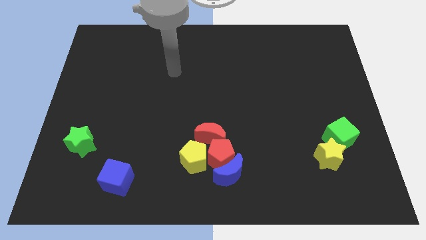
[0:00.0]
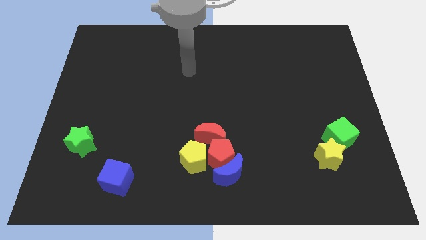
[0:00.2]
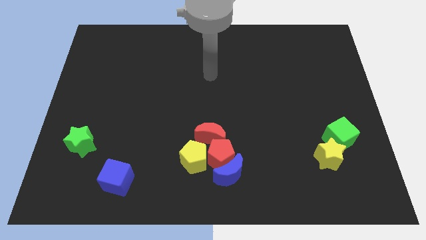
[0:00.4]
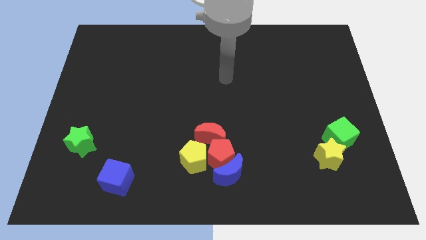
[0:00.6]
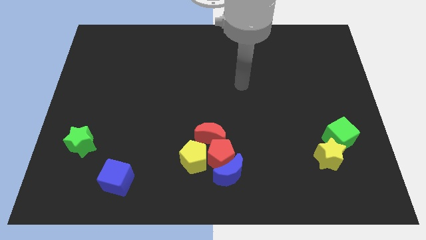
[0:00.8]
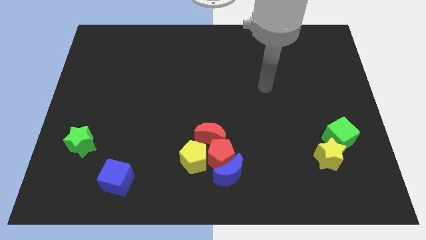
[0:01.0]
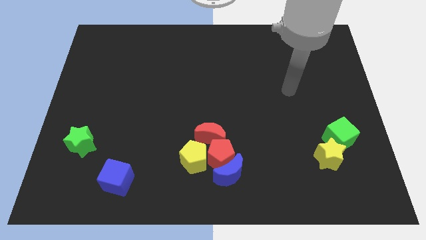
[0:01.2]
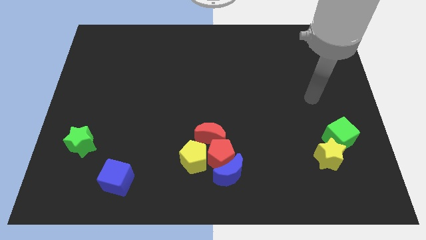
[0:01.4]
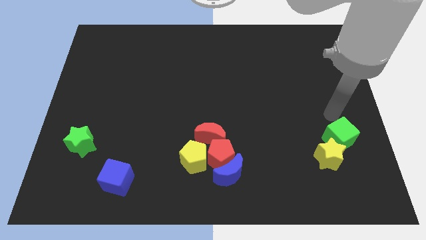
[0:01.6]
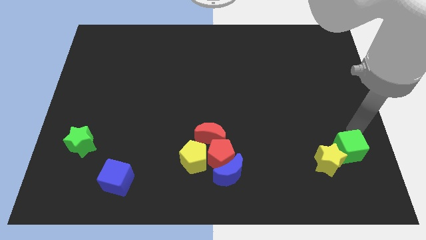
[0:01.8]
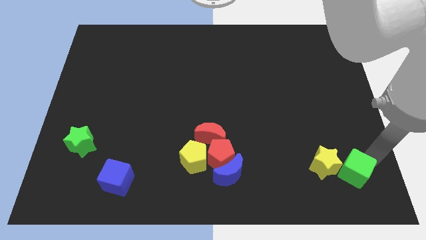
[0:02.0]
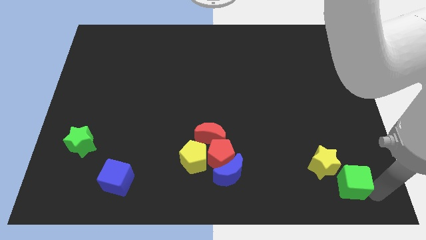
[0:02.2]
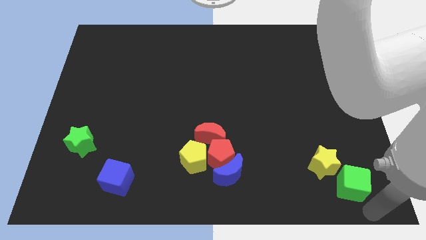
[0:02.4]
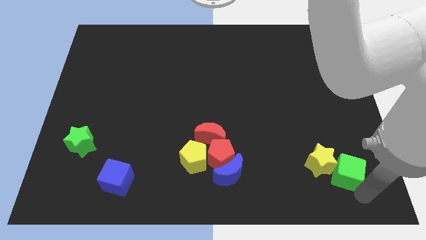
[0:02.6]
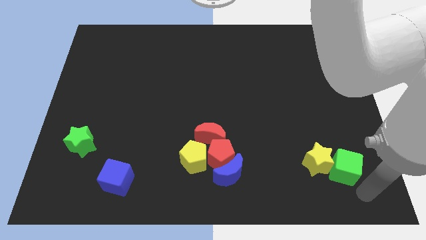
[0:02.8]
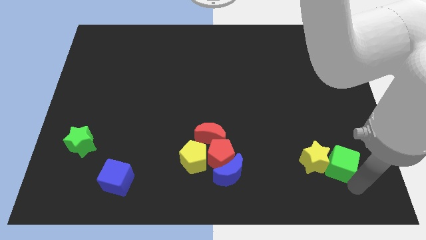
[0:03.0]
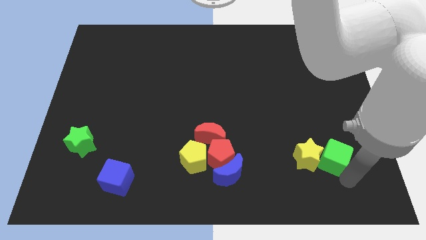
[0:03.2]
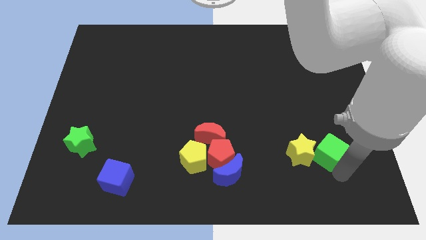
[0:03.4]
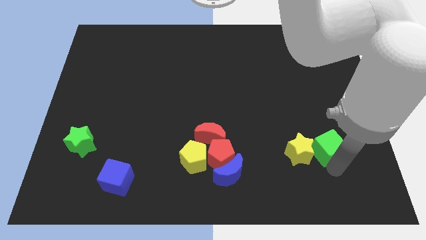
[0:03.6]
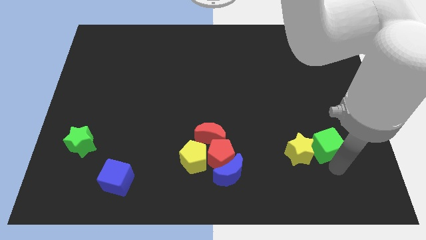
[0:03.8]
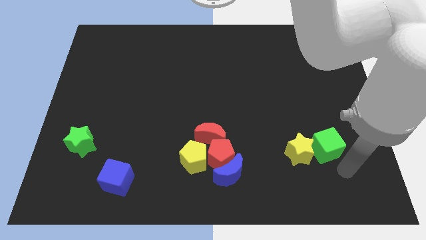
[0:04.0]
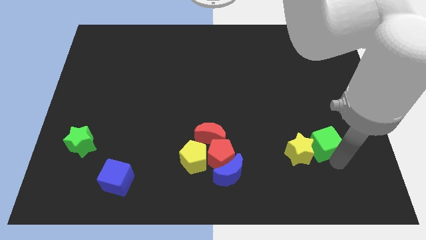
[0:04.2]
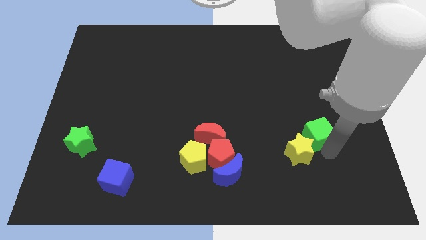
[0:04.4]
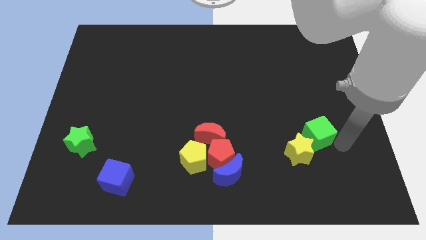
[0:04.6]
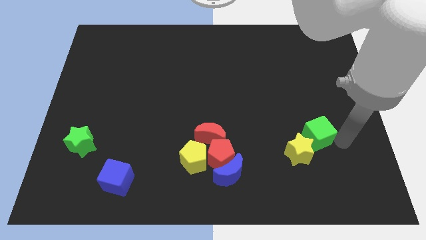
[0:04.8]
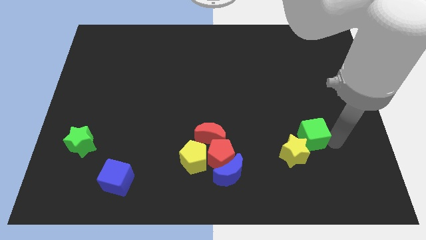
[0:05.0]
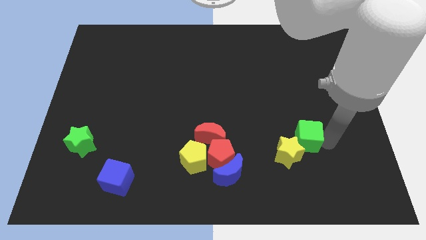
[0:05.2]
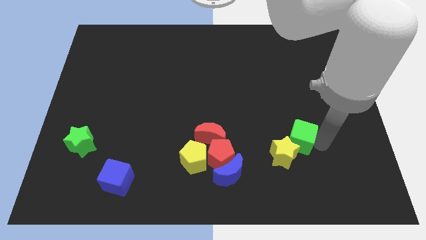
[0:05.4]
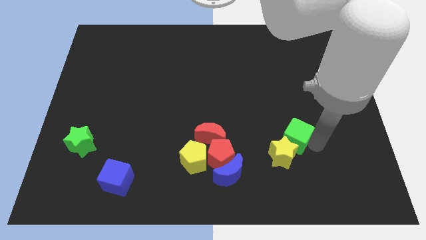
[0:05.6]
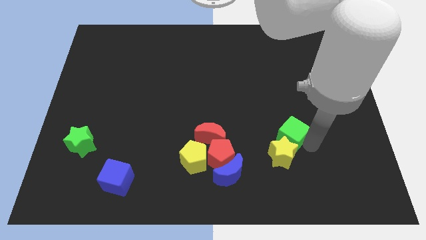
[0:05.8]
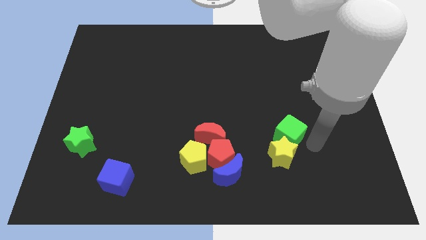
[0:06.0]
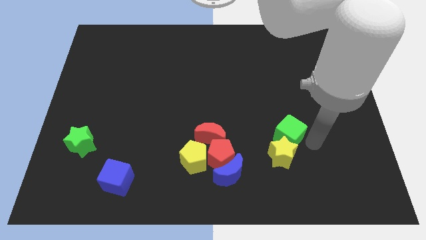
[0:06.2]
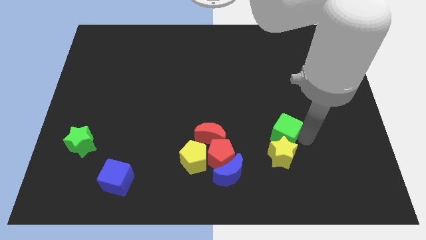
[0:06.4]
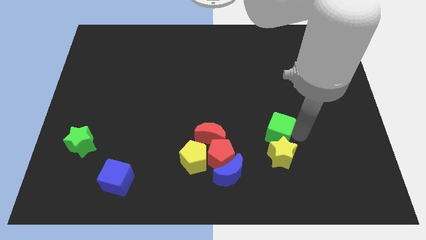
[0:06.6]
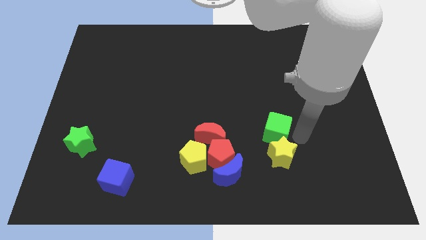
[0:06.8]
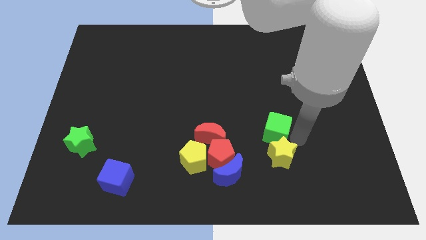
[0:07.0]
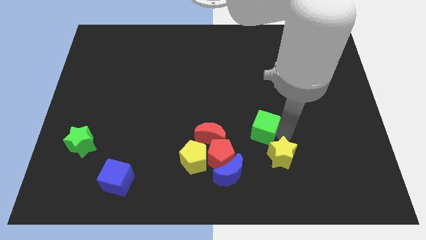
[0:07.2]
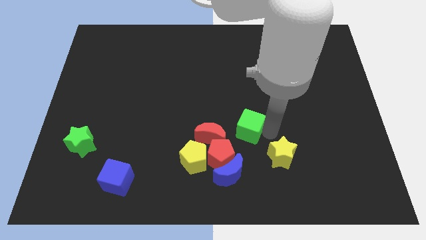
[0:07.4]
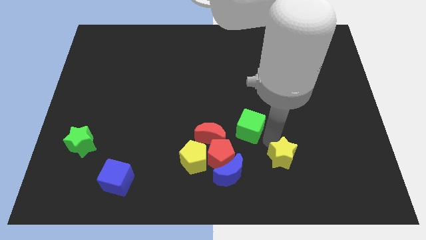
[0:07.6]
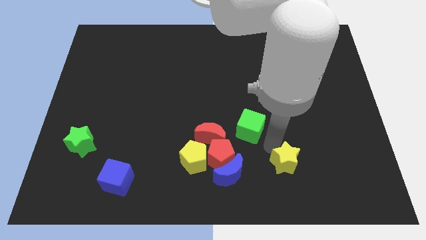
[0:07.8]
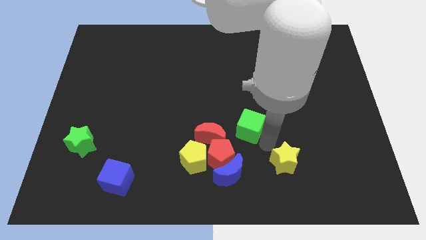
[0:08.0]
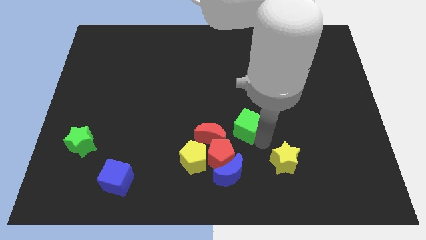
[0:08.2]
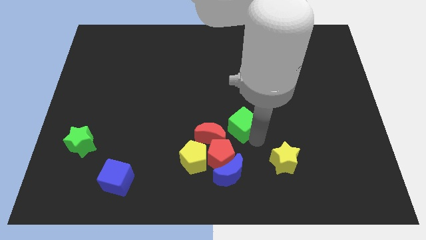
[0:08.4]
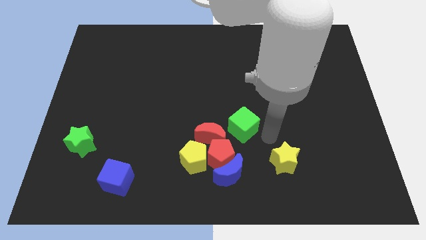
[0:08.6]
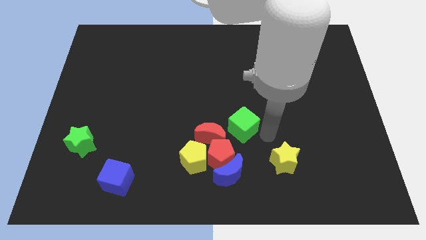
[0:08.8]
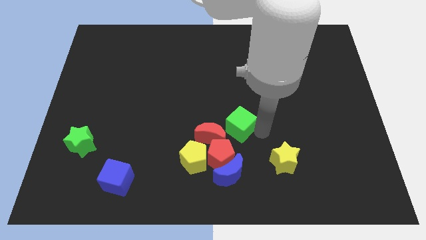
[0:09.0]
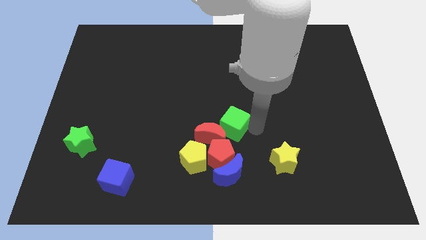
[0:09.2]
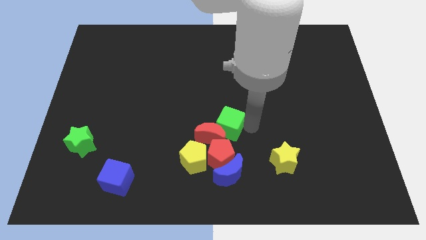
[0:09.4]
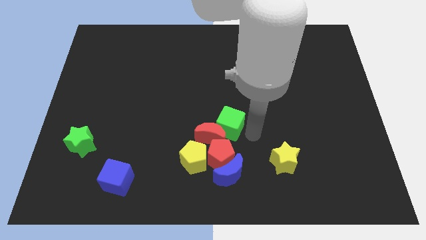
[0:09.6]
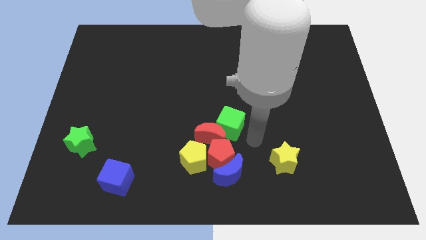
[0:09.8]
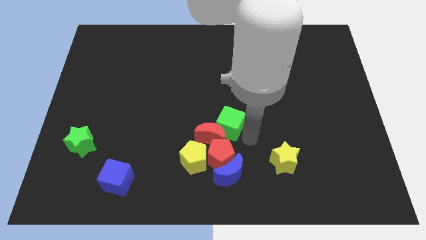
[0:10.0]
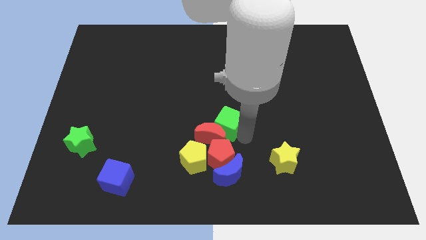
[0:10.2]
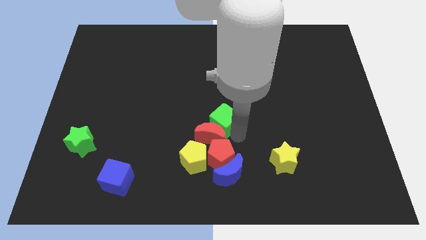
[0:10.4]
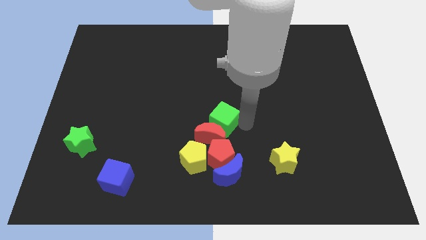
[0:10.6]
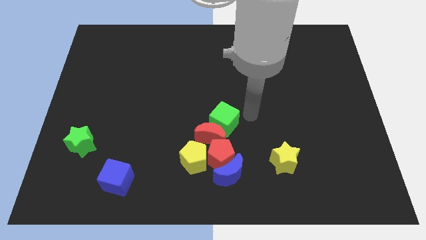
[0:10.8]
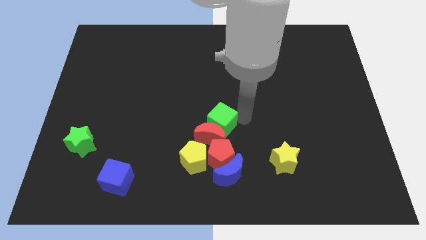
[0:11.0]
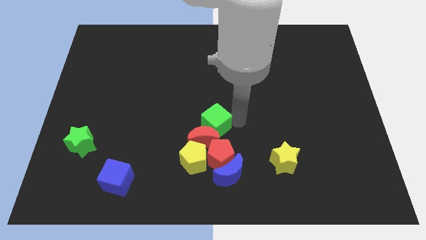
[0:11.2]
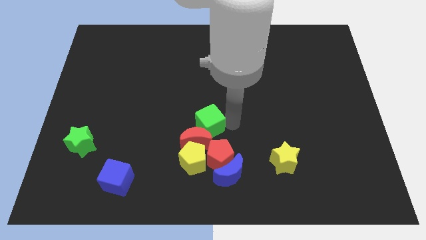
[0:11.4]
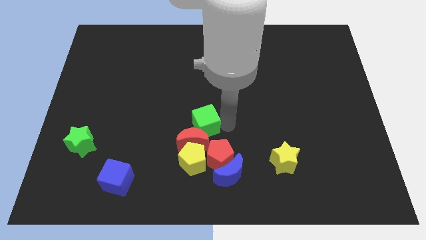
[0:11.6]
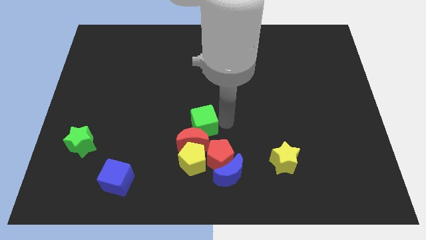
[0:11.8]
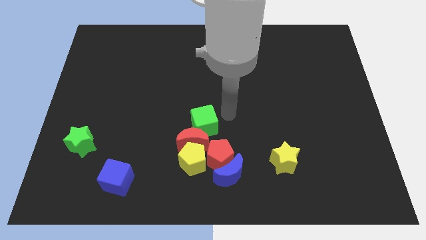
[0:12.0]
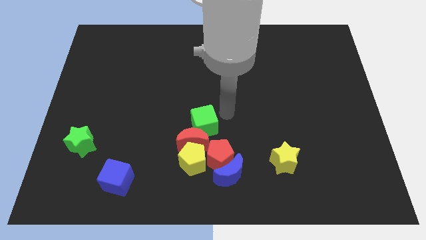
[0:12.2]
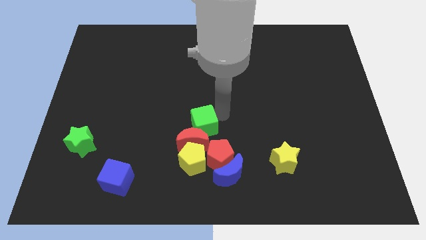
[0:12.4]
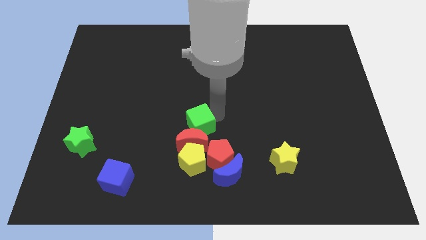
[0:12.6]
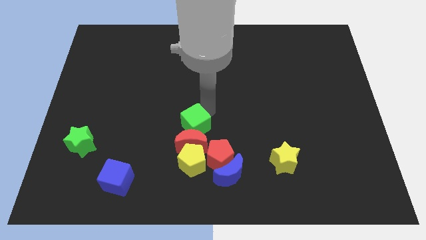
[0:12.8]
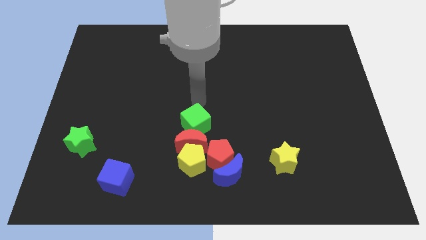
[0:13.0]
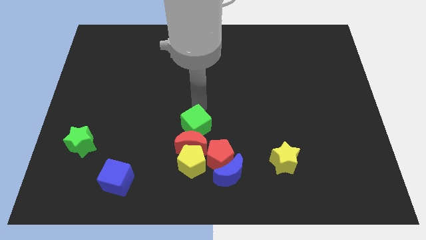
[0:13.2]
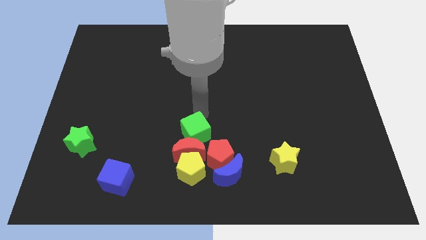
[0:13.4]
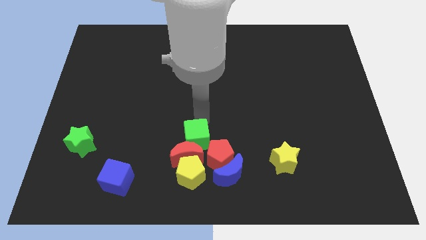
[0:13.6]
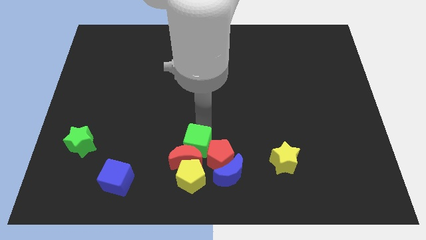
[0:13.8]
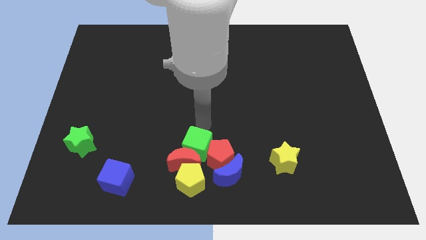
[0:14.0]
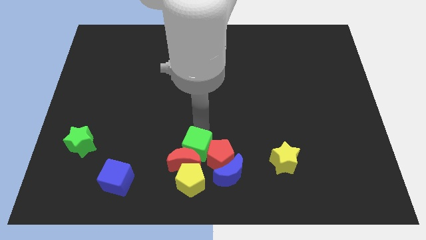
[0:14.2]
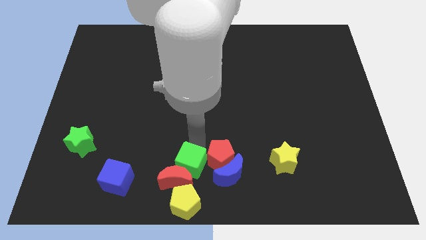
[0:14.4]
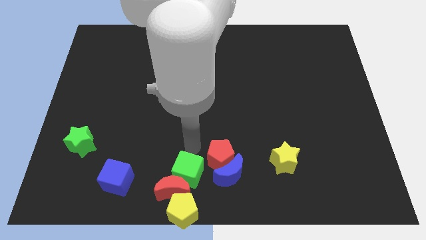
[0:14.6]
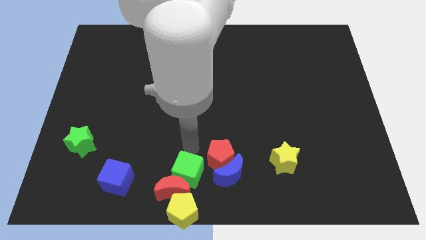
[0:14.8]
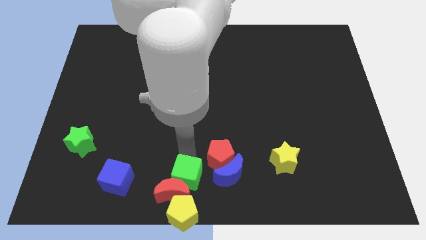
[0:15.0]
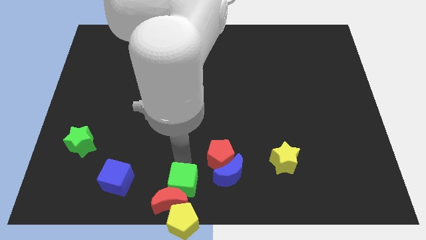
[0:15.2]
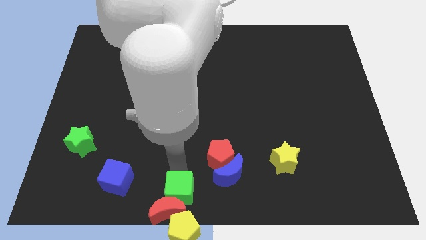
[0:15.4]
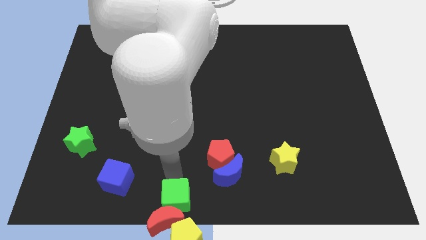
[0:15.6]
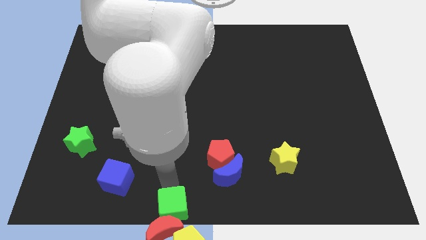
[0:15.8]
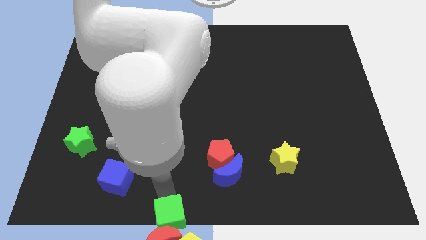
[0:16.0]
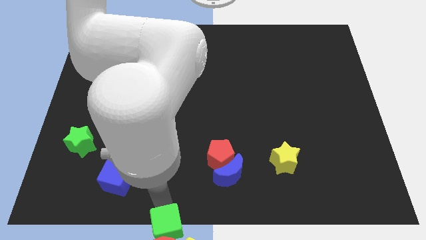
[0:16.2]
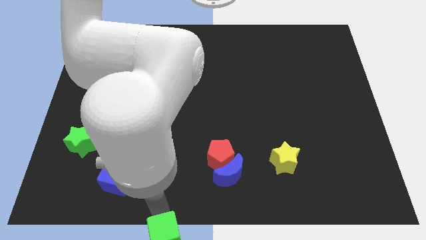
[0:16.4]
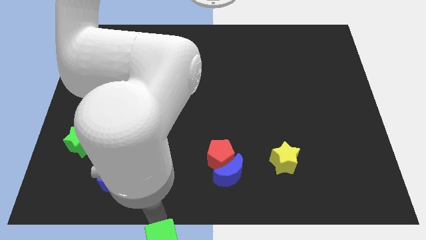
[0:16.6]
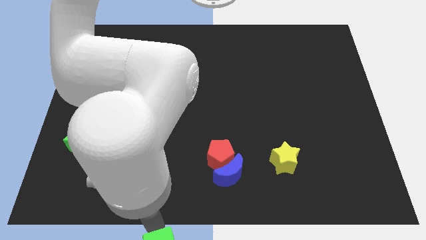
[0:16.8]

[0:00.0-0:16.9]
put the green cube close to the yellow pentagon
